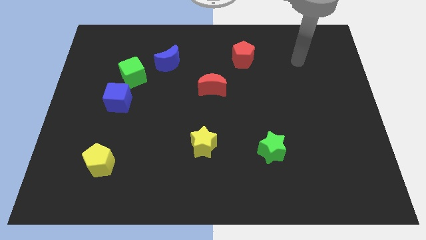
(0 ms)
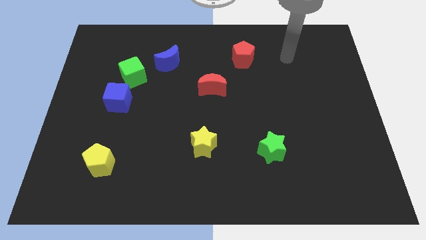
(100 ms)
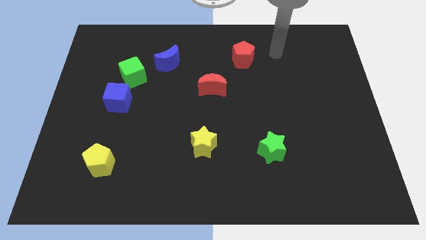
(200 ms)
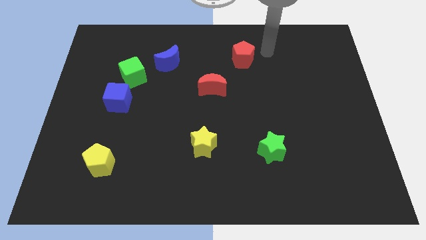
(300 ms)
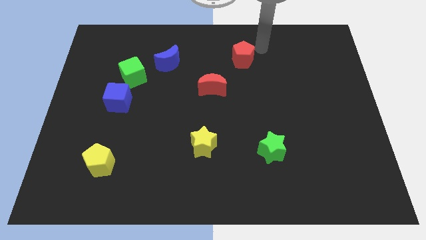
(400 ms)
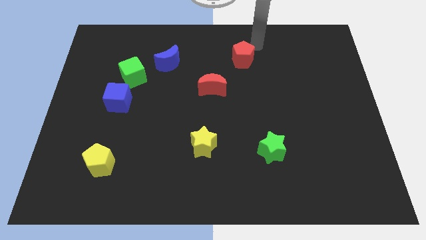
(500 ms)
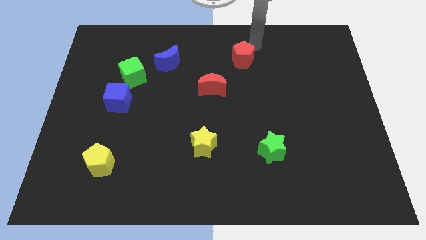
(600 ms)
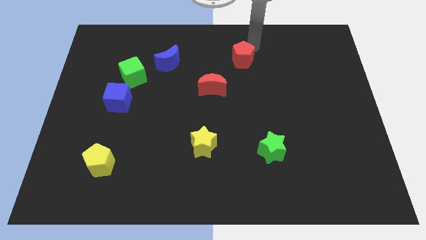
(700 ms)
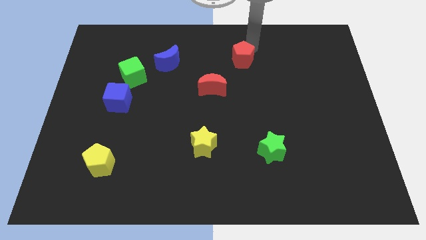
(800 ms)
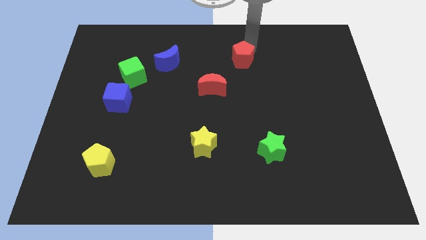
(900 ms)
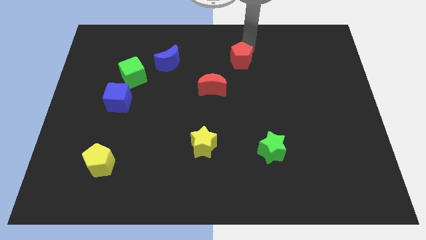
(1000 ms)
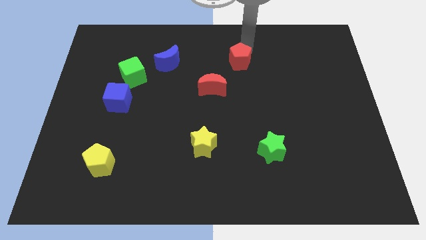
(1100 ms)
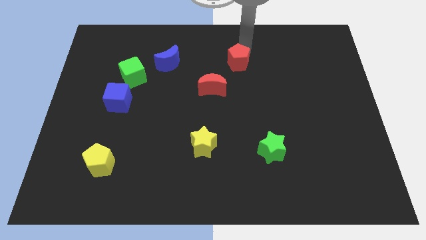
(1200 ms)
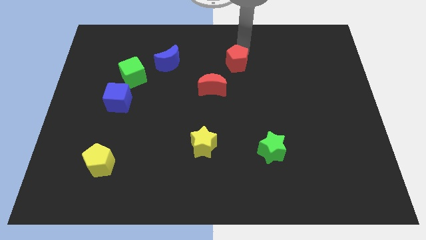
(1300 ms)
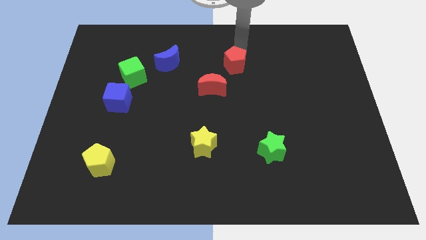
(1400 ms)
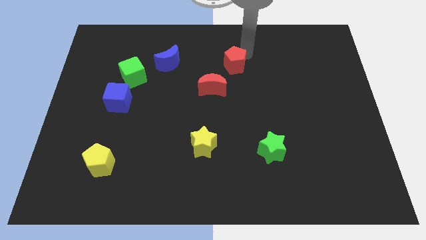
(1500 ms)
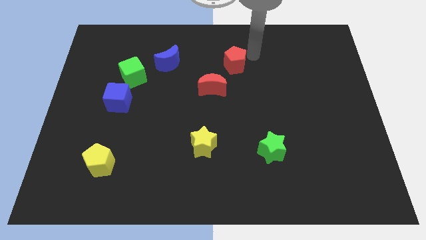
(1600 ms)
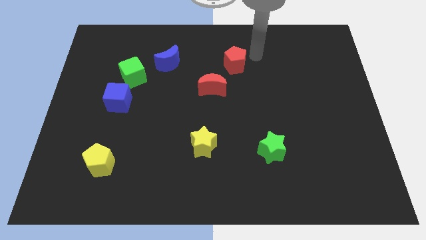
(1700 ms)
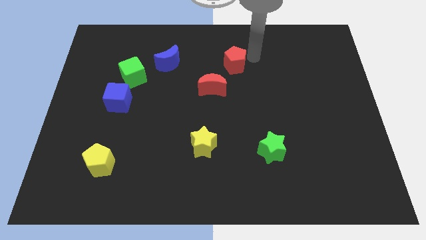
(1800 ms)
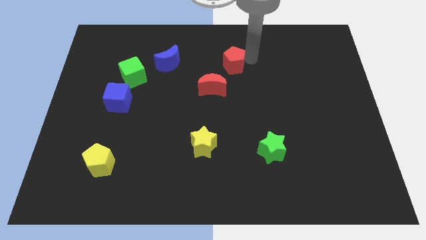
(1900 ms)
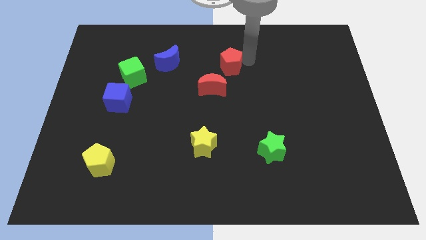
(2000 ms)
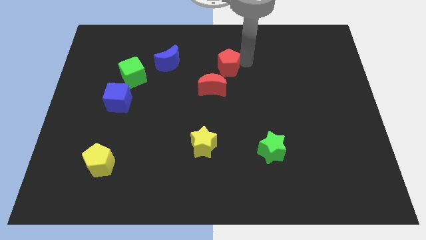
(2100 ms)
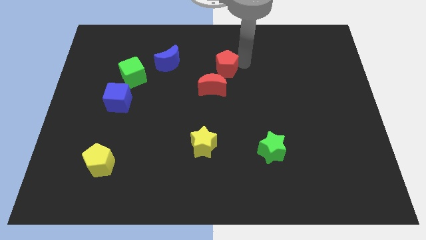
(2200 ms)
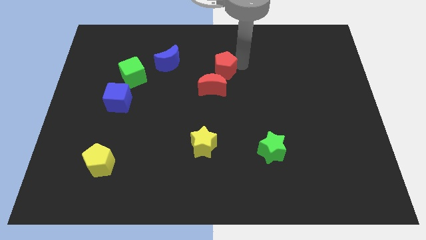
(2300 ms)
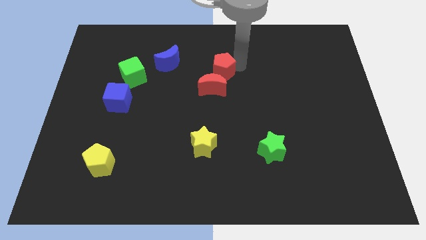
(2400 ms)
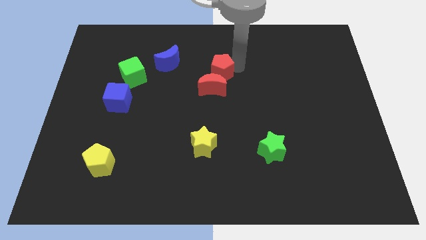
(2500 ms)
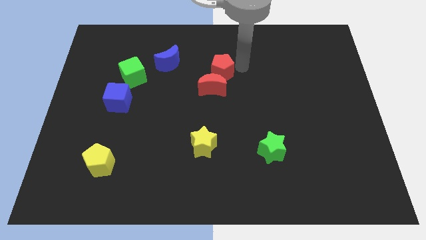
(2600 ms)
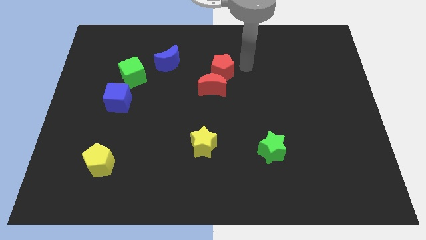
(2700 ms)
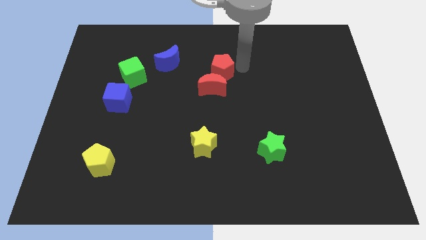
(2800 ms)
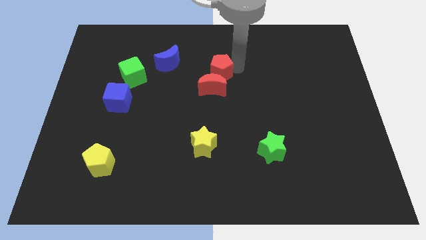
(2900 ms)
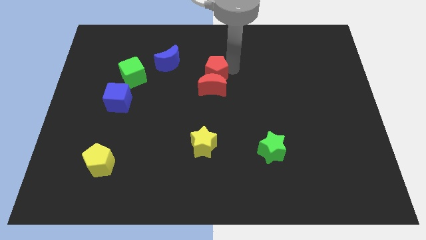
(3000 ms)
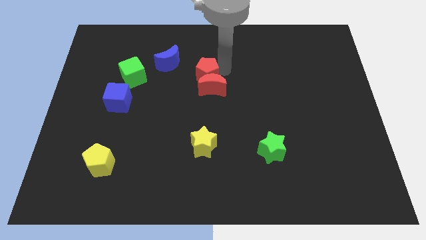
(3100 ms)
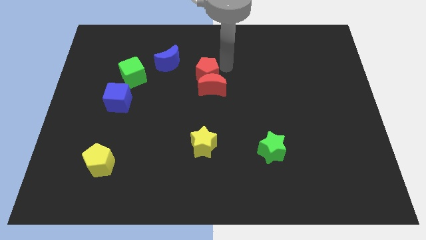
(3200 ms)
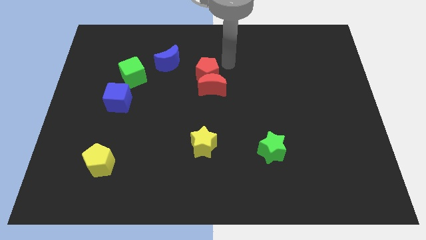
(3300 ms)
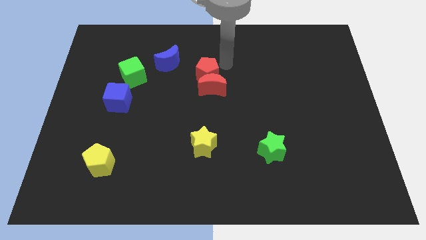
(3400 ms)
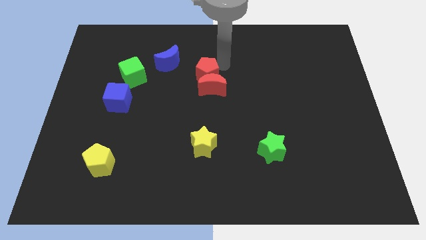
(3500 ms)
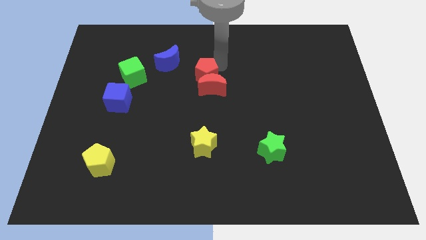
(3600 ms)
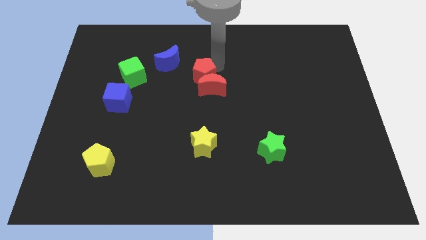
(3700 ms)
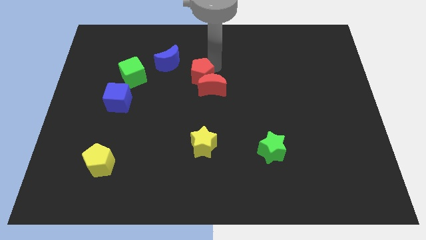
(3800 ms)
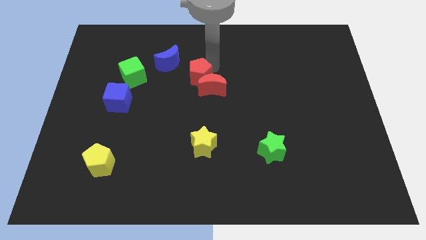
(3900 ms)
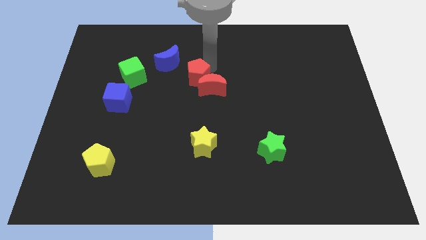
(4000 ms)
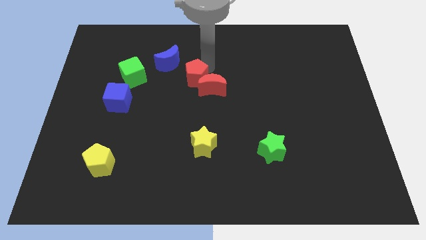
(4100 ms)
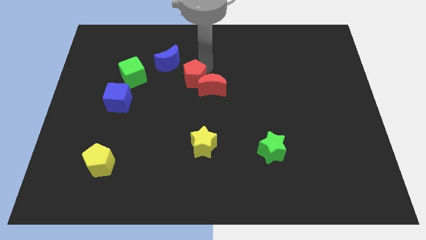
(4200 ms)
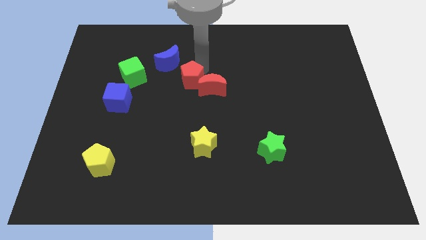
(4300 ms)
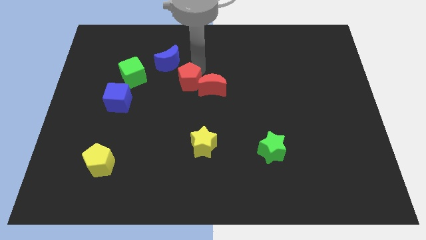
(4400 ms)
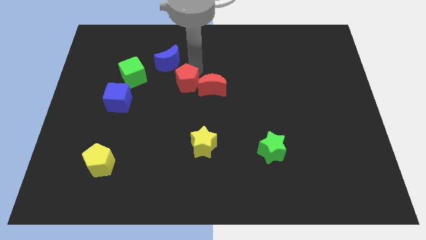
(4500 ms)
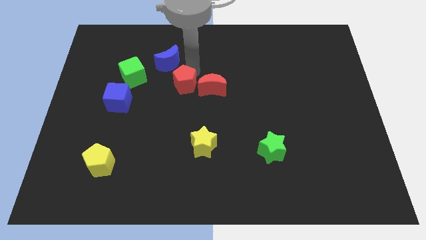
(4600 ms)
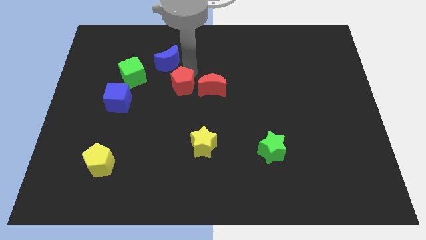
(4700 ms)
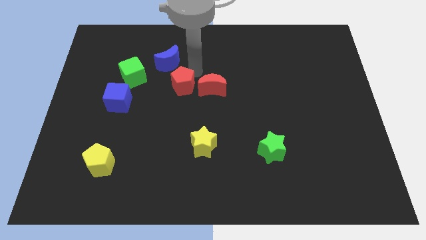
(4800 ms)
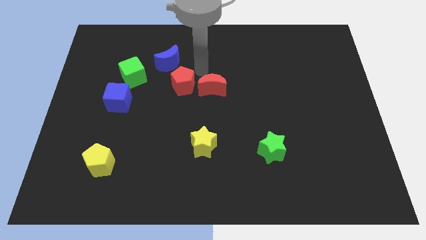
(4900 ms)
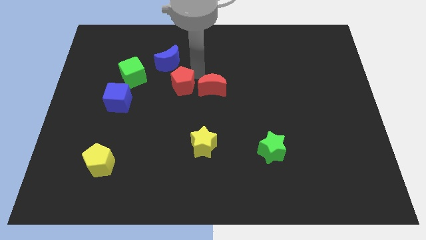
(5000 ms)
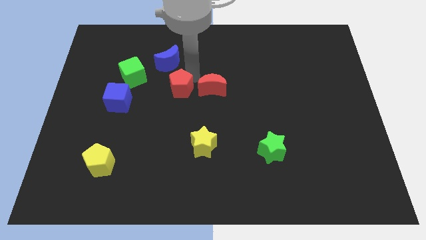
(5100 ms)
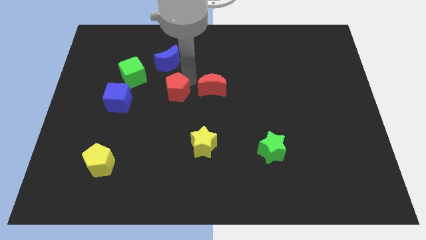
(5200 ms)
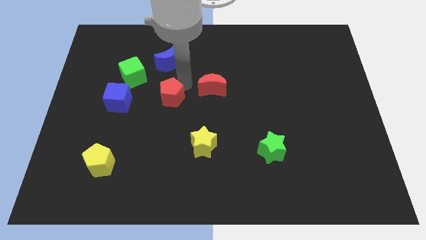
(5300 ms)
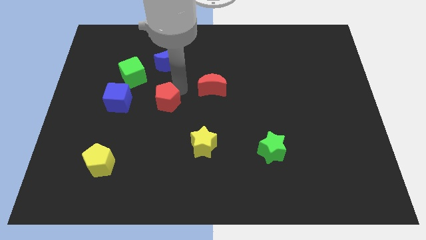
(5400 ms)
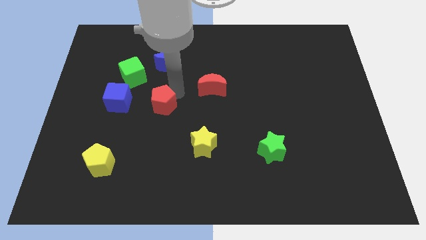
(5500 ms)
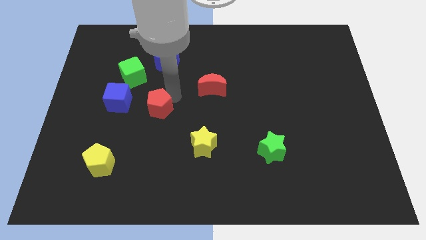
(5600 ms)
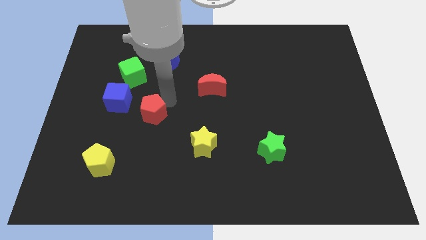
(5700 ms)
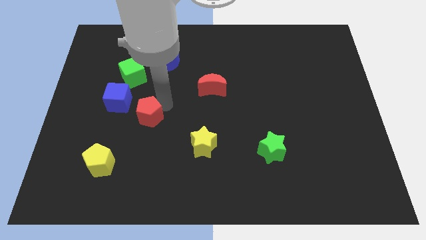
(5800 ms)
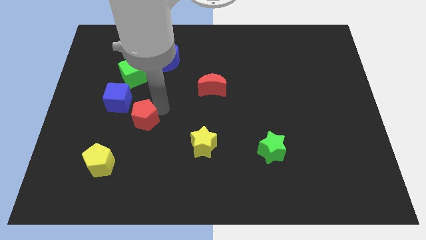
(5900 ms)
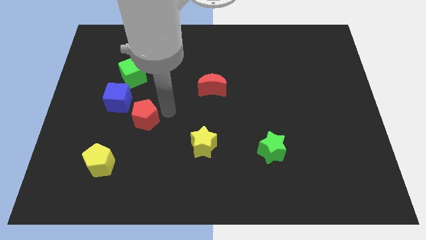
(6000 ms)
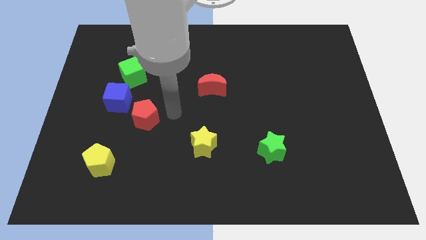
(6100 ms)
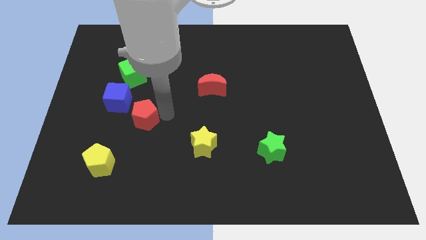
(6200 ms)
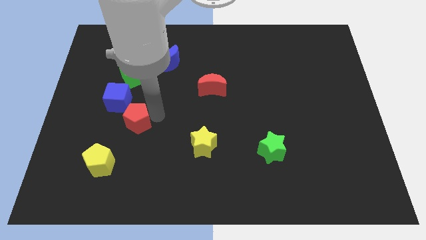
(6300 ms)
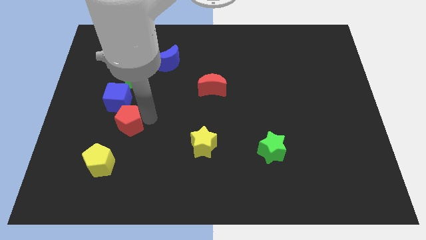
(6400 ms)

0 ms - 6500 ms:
push the red pentagon above the yellow pentagon

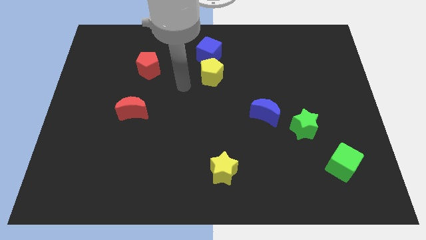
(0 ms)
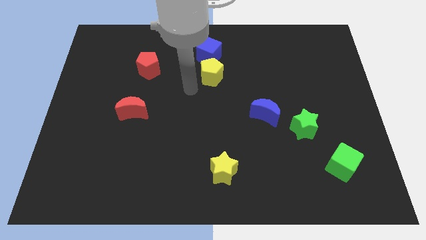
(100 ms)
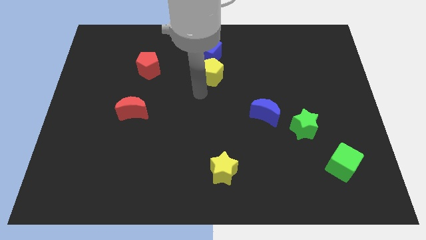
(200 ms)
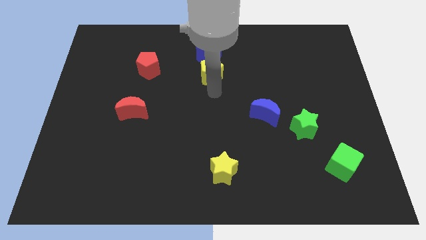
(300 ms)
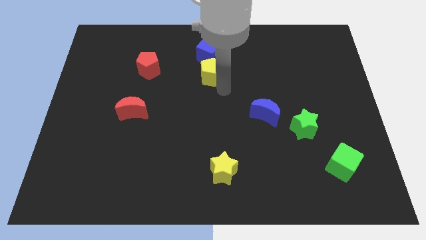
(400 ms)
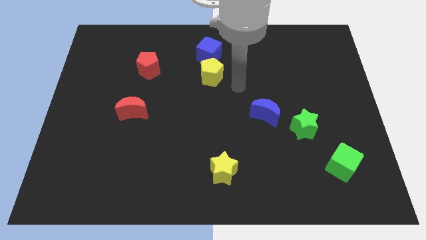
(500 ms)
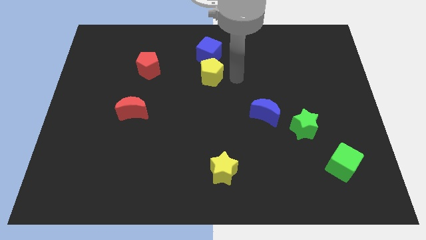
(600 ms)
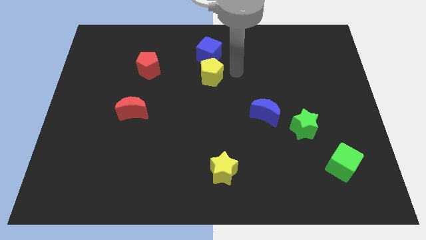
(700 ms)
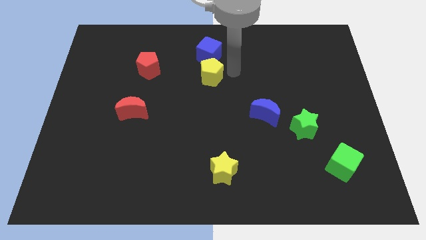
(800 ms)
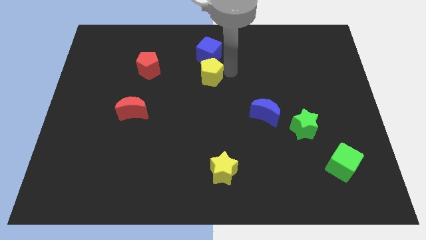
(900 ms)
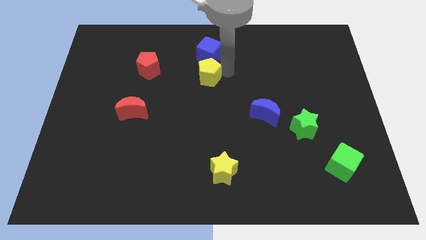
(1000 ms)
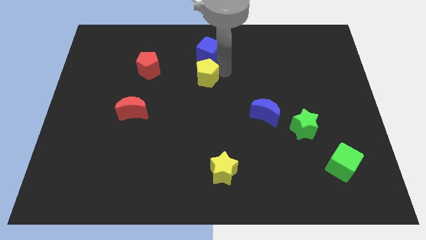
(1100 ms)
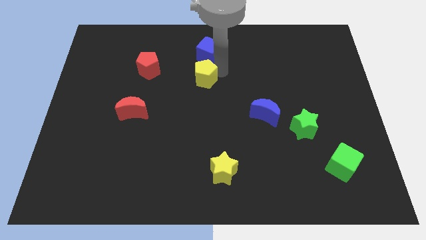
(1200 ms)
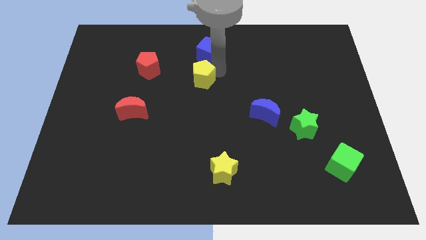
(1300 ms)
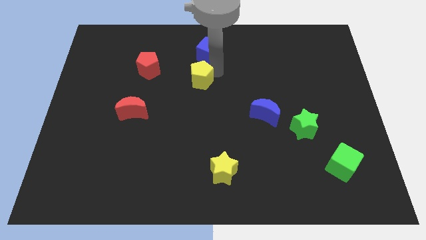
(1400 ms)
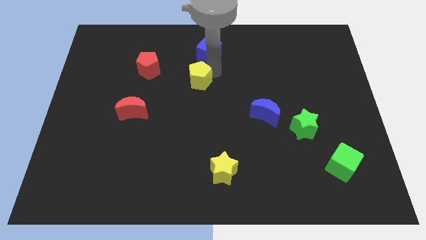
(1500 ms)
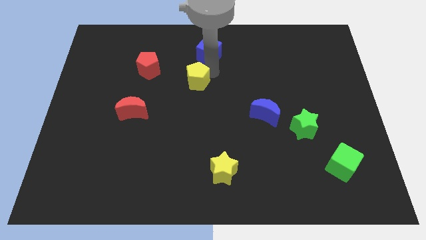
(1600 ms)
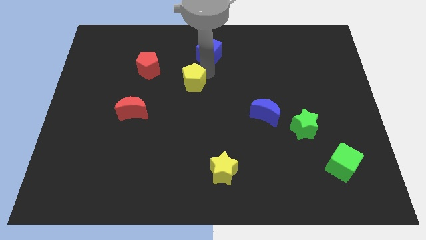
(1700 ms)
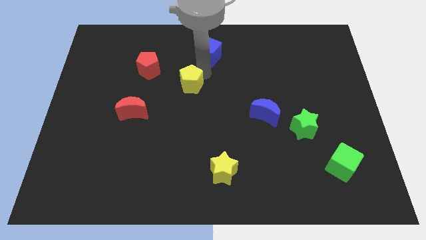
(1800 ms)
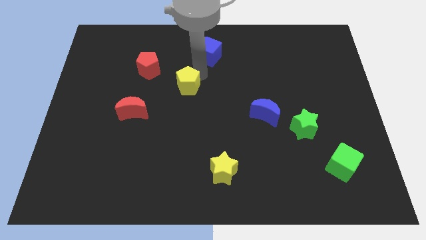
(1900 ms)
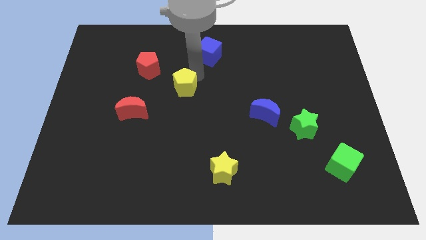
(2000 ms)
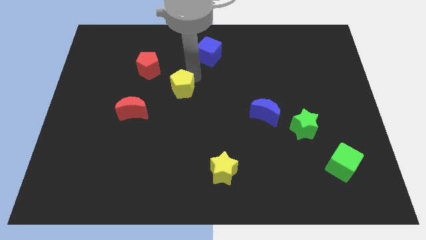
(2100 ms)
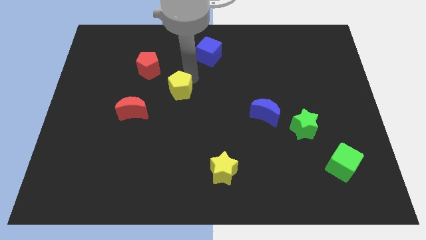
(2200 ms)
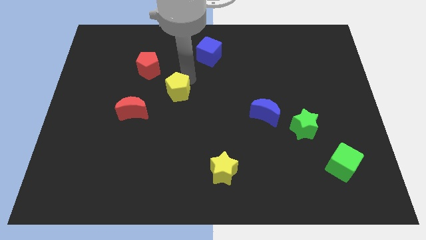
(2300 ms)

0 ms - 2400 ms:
move the yellow pentagon to the top right of the red moon
